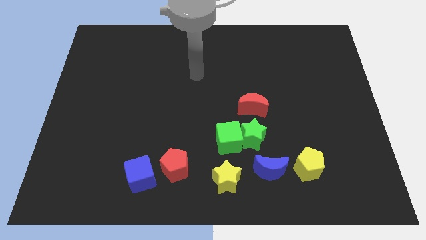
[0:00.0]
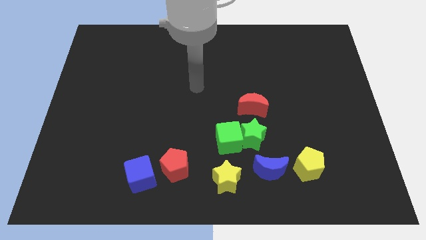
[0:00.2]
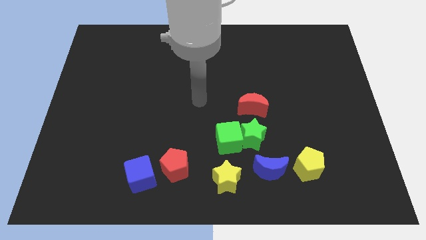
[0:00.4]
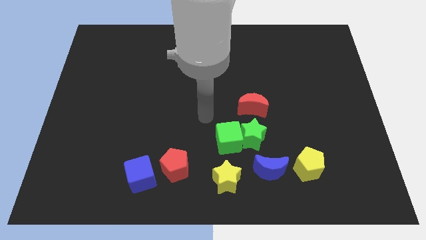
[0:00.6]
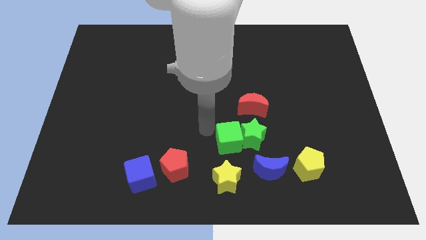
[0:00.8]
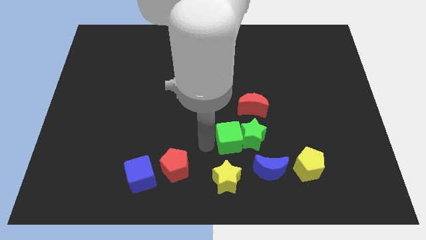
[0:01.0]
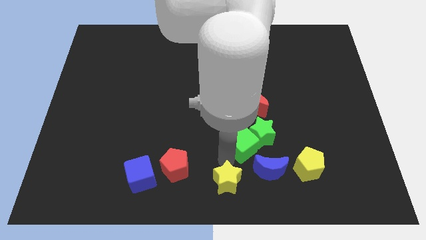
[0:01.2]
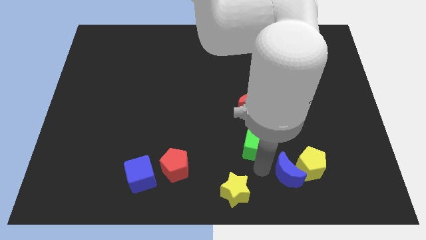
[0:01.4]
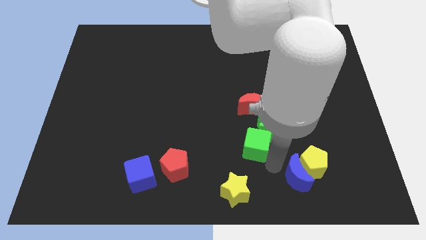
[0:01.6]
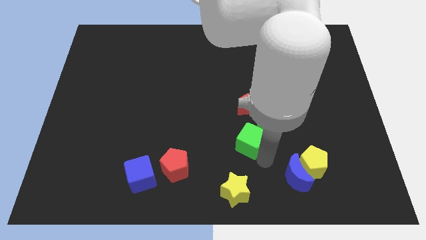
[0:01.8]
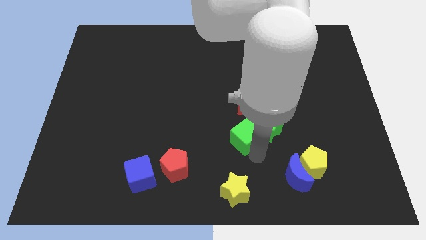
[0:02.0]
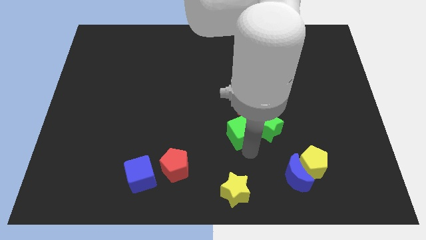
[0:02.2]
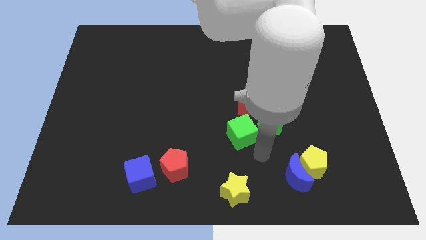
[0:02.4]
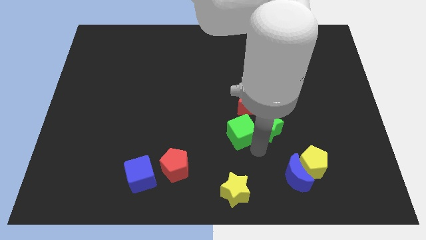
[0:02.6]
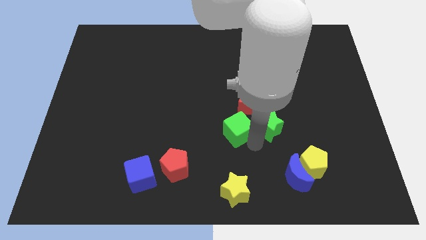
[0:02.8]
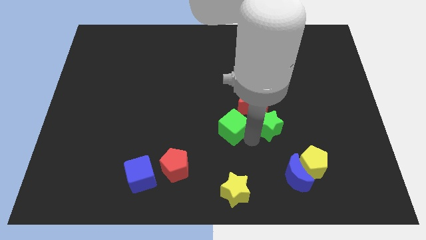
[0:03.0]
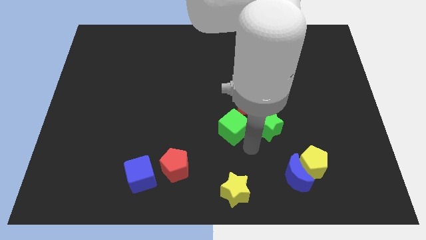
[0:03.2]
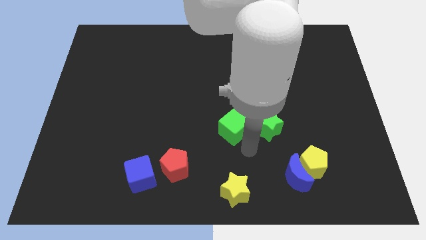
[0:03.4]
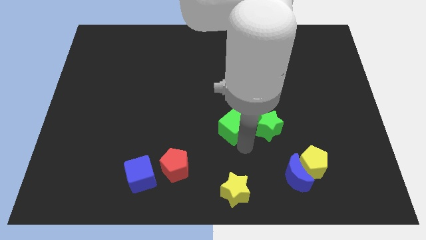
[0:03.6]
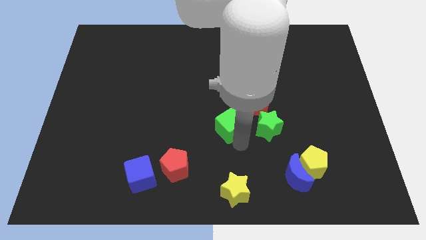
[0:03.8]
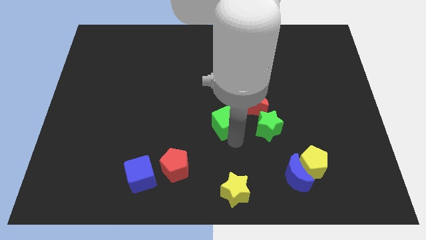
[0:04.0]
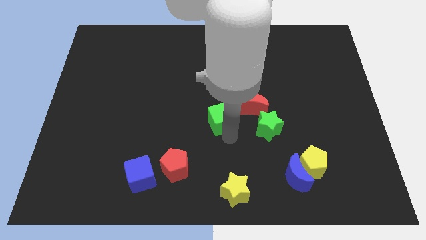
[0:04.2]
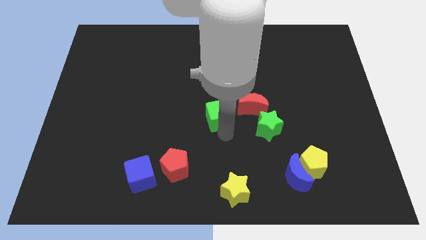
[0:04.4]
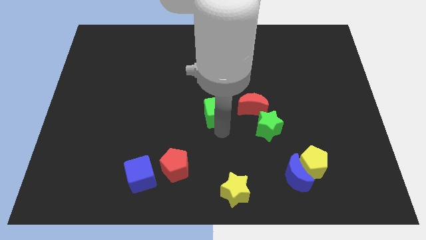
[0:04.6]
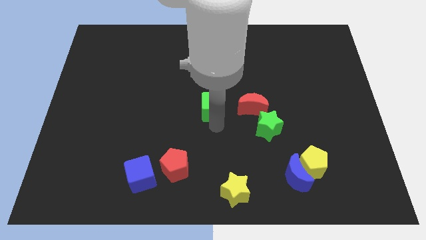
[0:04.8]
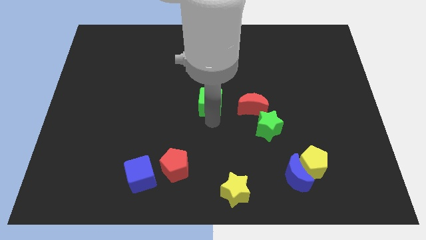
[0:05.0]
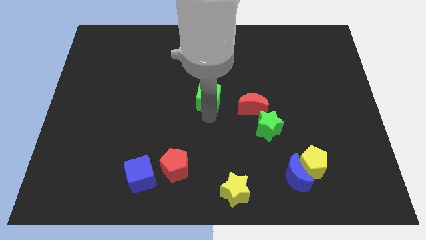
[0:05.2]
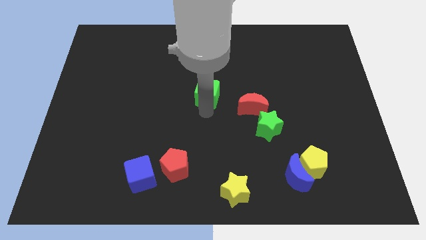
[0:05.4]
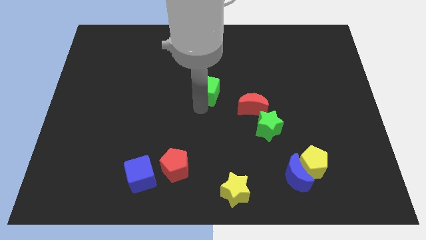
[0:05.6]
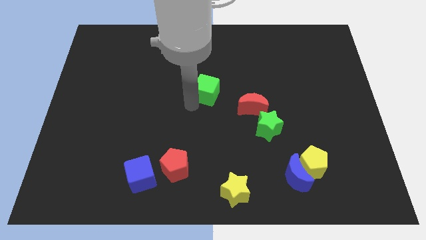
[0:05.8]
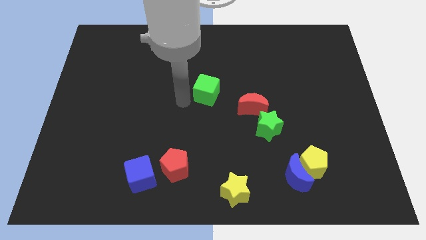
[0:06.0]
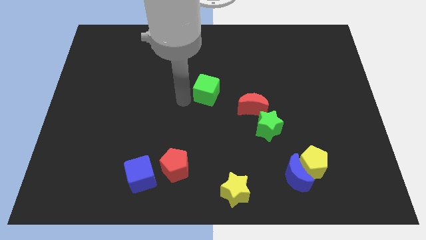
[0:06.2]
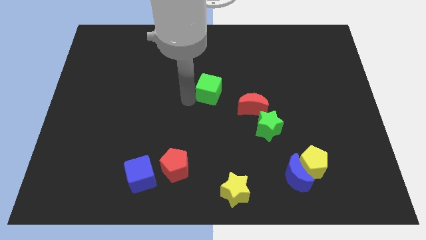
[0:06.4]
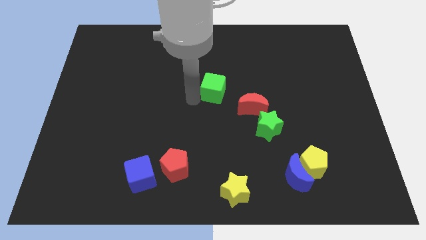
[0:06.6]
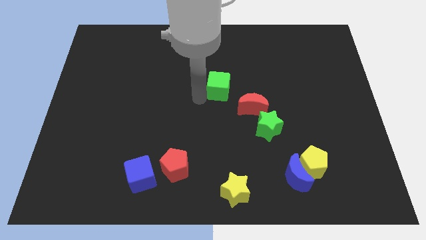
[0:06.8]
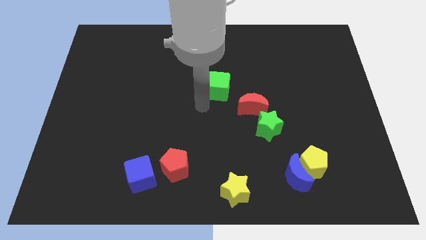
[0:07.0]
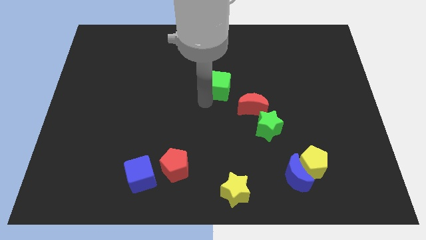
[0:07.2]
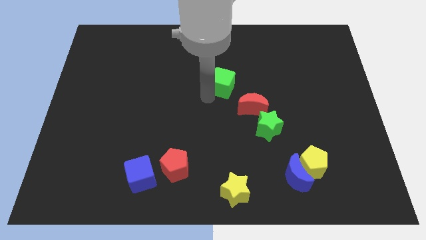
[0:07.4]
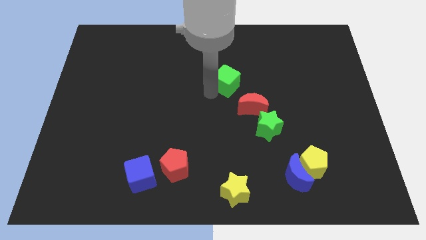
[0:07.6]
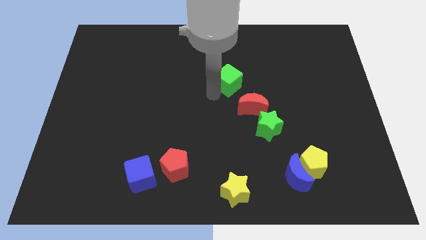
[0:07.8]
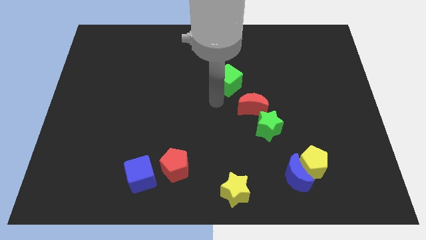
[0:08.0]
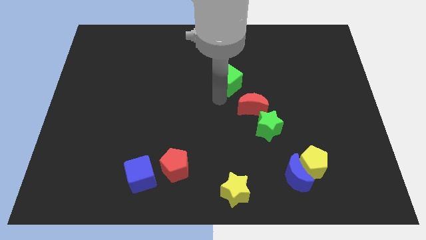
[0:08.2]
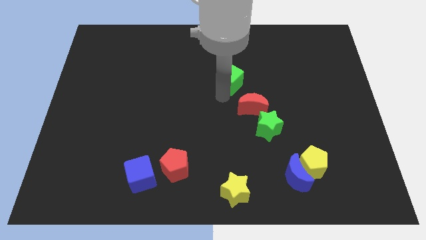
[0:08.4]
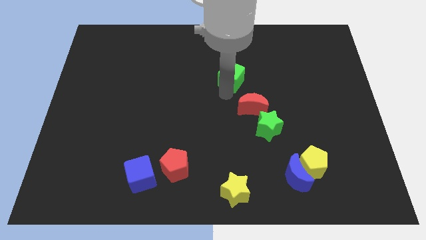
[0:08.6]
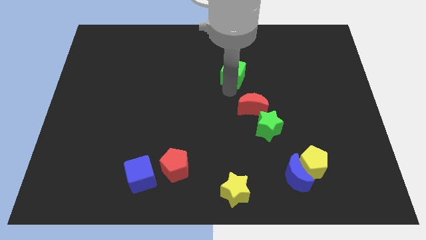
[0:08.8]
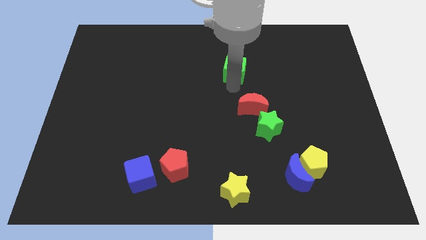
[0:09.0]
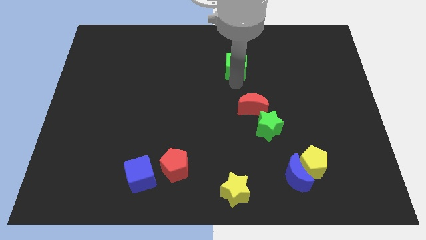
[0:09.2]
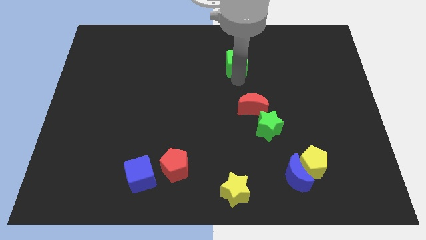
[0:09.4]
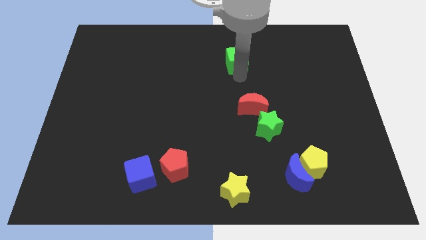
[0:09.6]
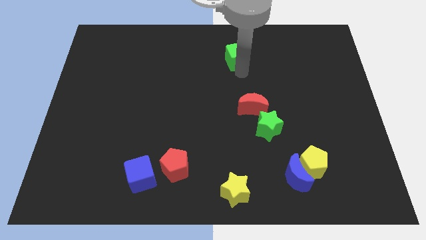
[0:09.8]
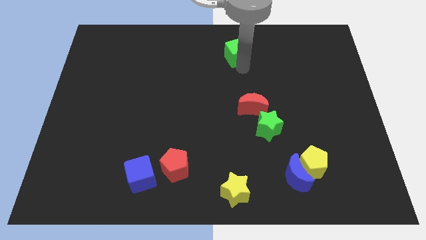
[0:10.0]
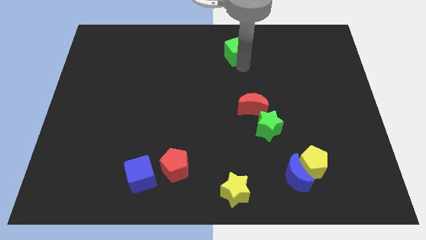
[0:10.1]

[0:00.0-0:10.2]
push the green cube to the top

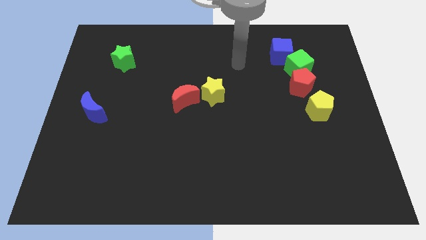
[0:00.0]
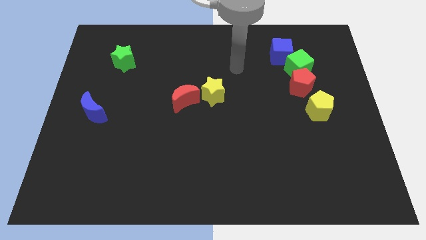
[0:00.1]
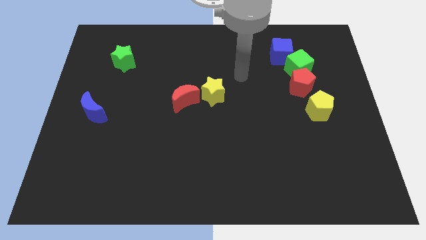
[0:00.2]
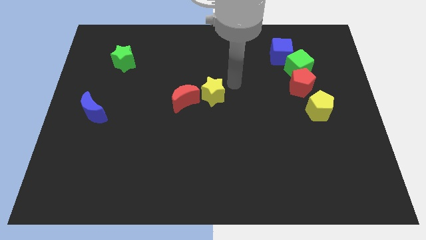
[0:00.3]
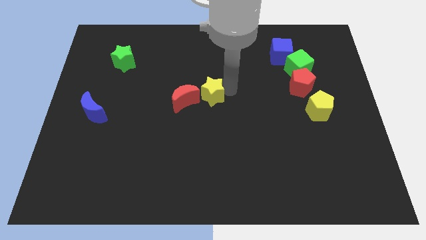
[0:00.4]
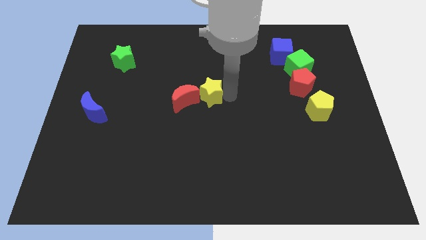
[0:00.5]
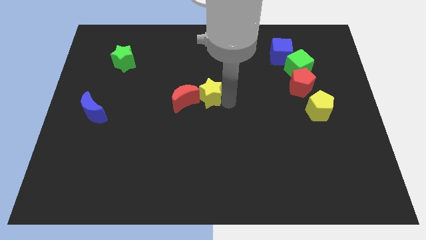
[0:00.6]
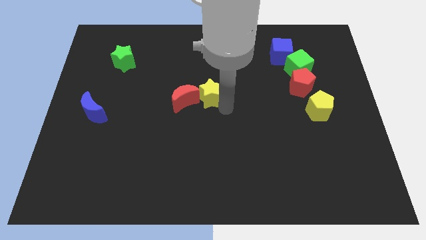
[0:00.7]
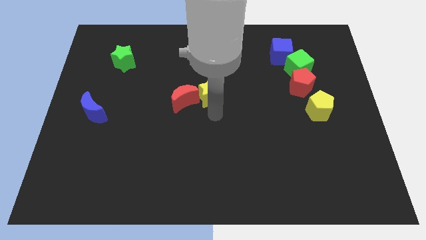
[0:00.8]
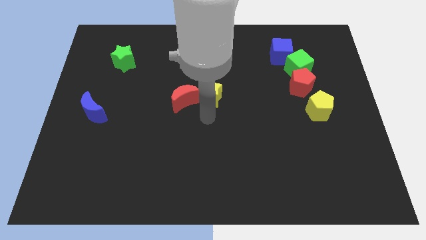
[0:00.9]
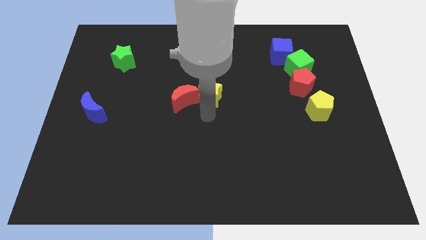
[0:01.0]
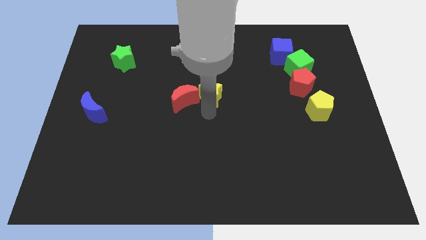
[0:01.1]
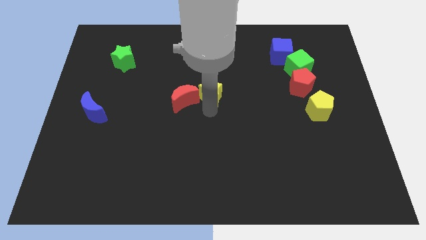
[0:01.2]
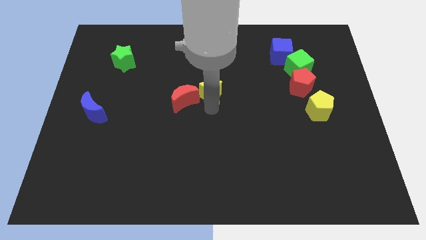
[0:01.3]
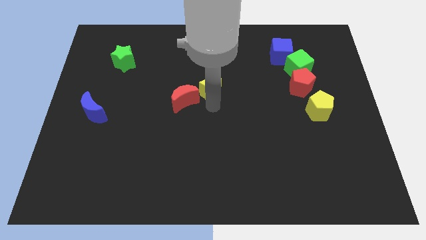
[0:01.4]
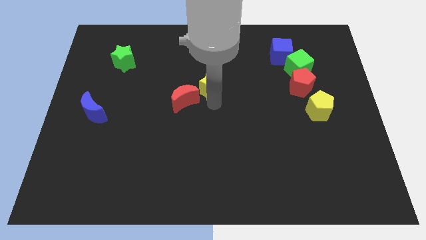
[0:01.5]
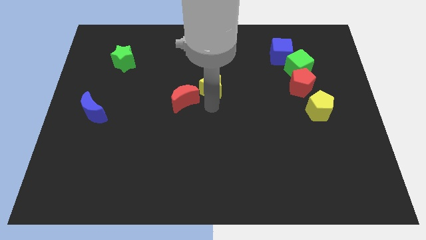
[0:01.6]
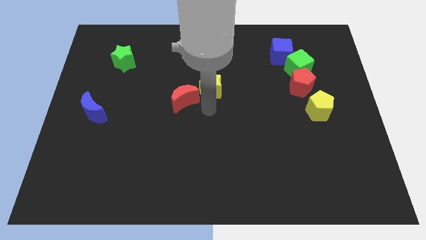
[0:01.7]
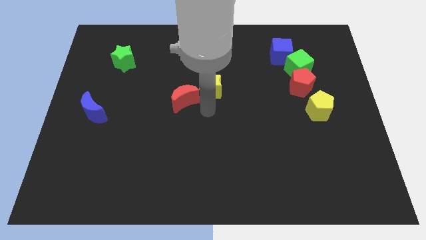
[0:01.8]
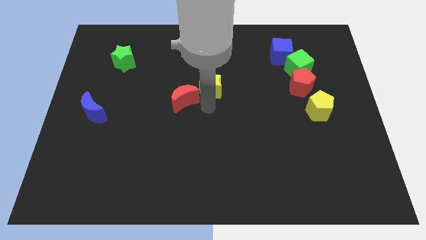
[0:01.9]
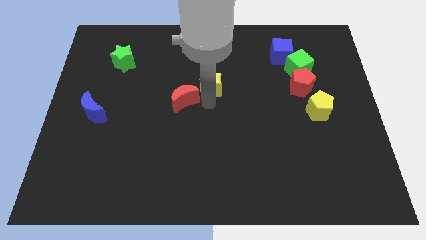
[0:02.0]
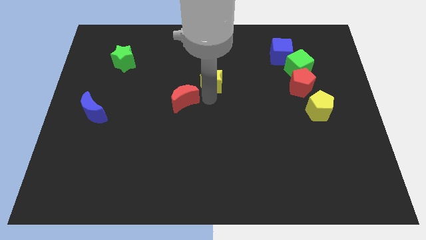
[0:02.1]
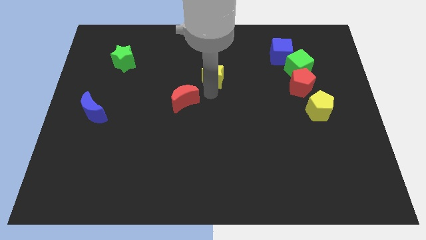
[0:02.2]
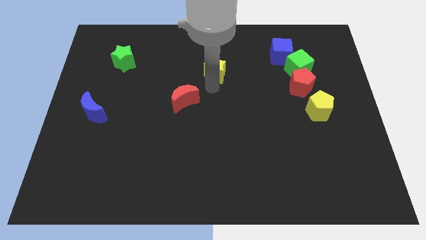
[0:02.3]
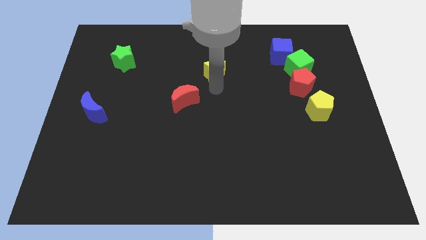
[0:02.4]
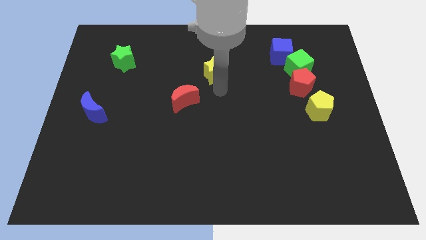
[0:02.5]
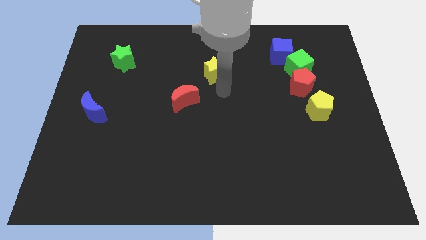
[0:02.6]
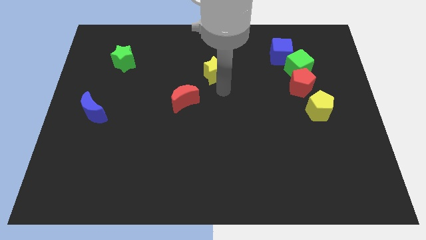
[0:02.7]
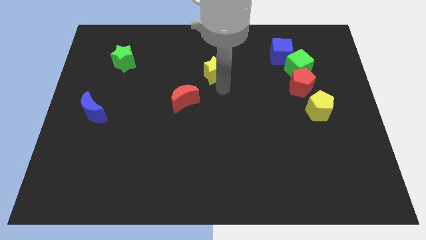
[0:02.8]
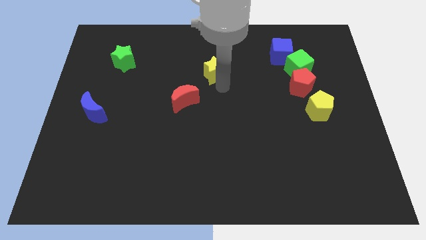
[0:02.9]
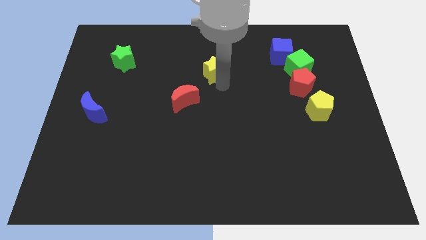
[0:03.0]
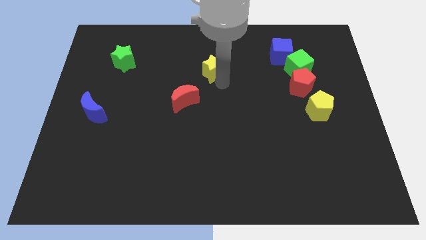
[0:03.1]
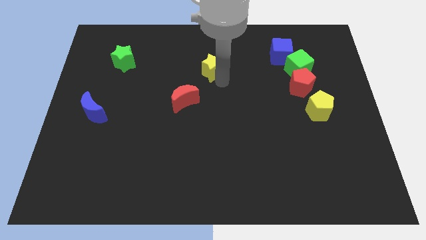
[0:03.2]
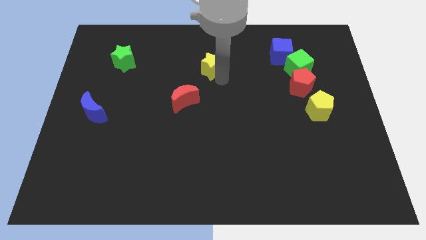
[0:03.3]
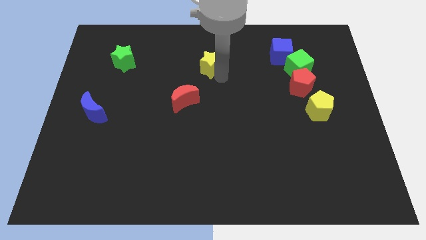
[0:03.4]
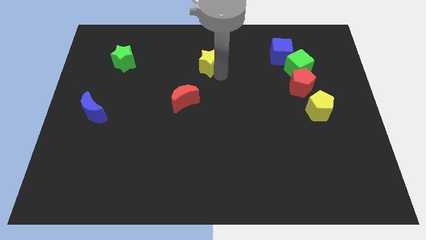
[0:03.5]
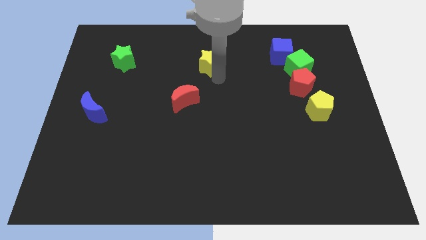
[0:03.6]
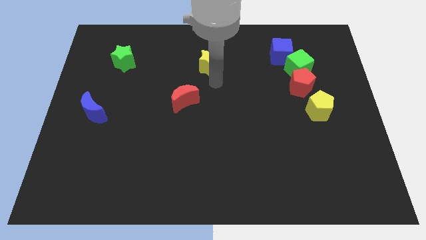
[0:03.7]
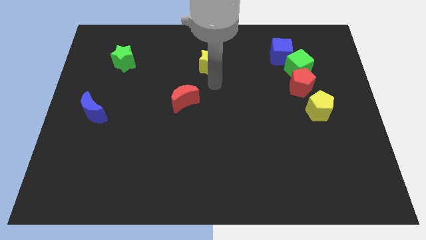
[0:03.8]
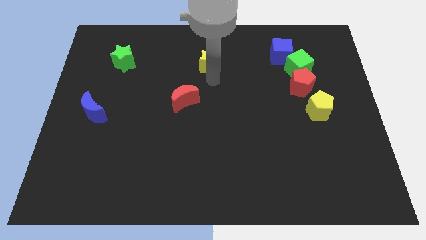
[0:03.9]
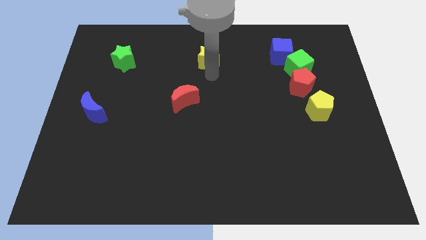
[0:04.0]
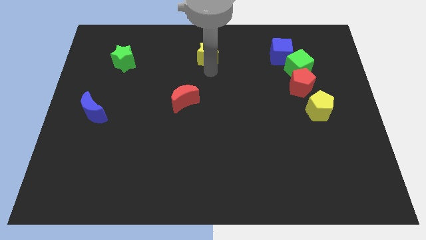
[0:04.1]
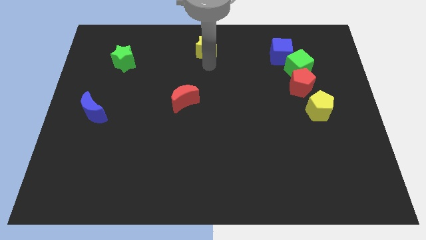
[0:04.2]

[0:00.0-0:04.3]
put the yellow star to the top side
